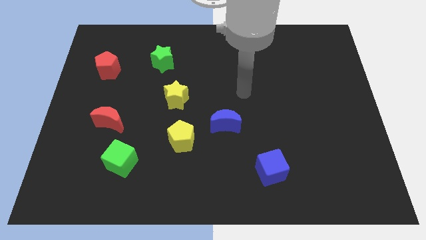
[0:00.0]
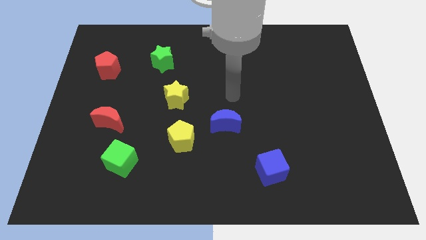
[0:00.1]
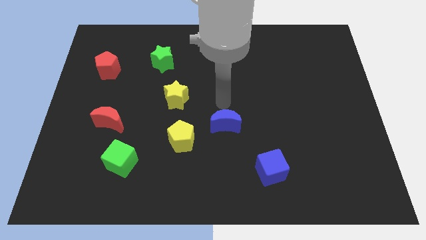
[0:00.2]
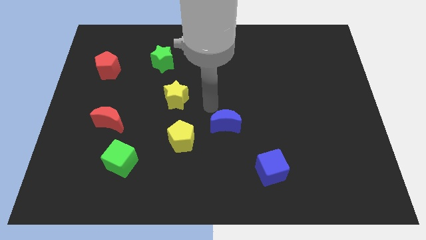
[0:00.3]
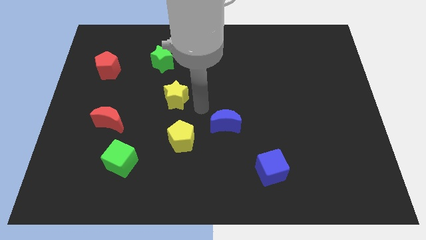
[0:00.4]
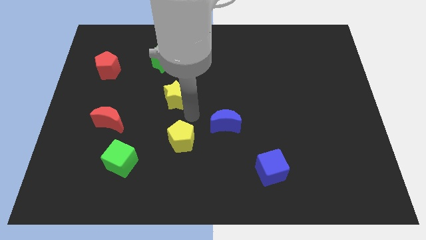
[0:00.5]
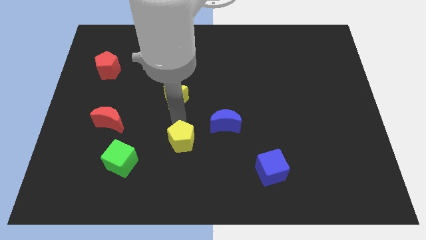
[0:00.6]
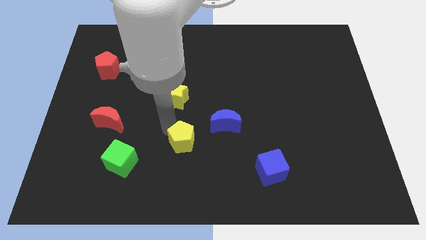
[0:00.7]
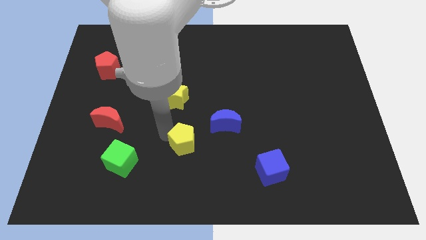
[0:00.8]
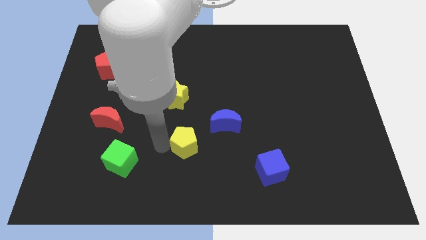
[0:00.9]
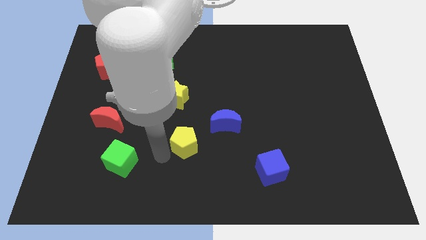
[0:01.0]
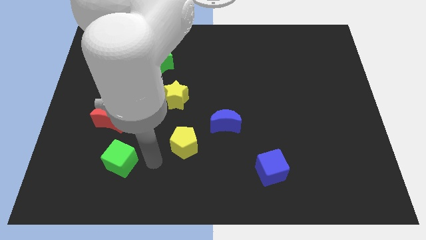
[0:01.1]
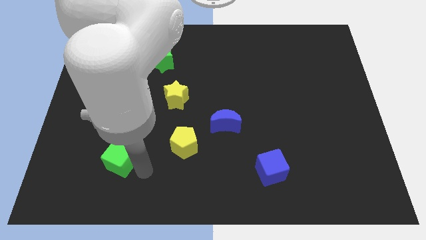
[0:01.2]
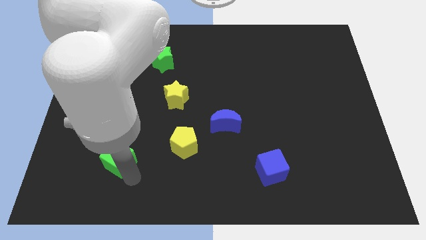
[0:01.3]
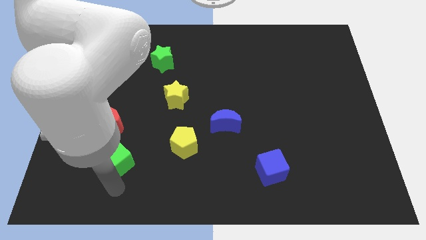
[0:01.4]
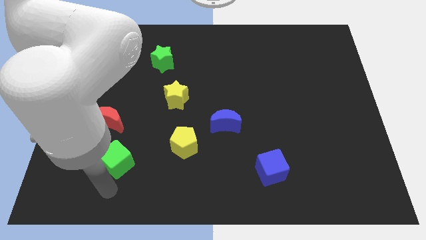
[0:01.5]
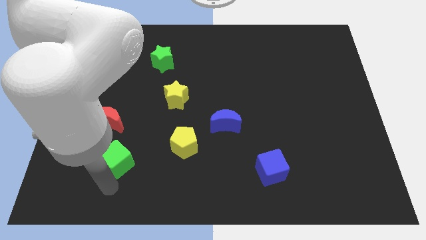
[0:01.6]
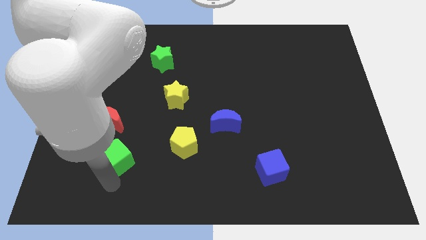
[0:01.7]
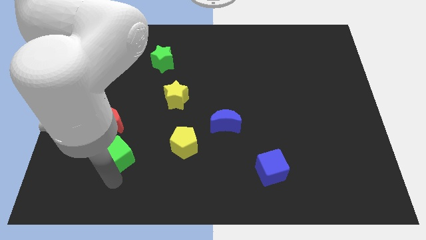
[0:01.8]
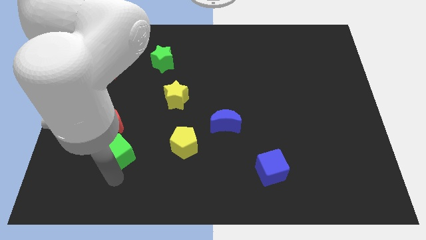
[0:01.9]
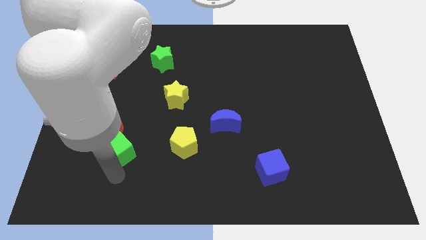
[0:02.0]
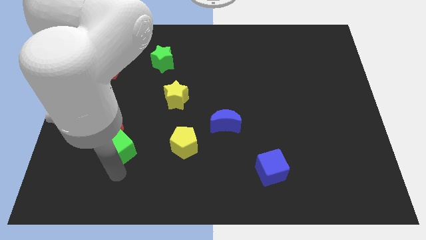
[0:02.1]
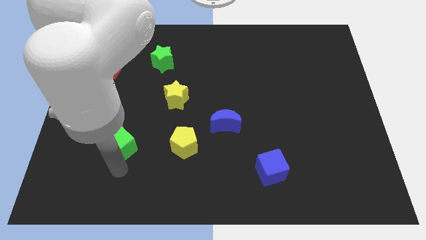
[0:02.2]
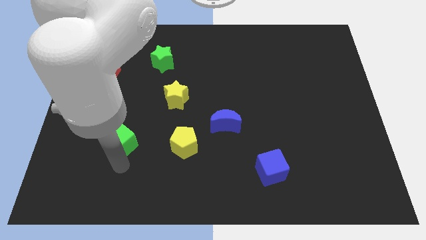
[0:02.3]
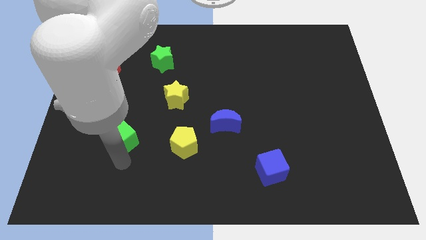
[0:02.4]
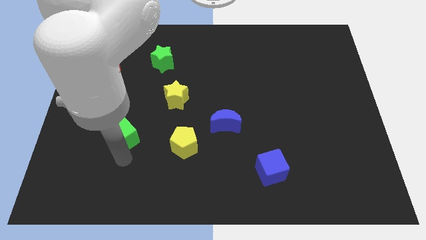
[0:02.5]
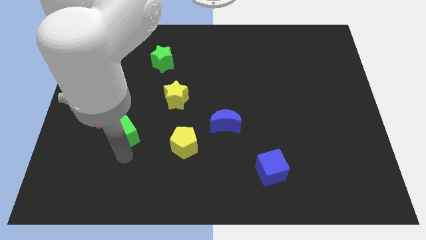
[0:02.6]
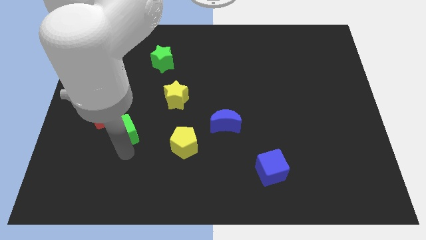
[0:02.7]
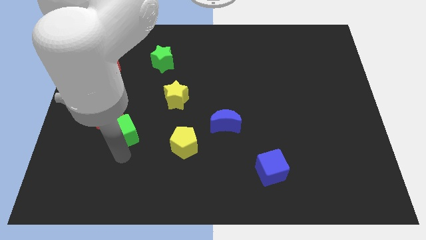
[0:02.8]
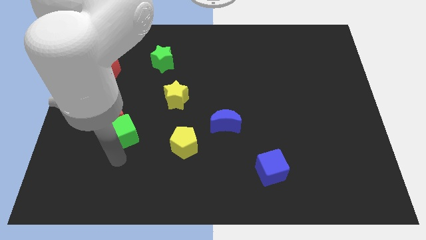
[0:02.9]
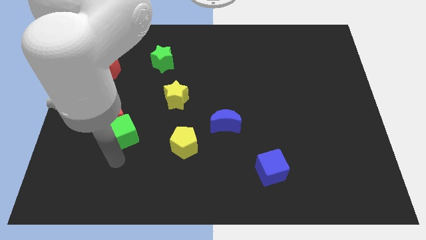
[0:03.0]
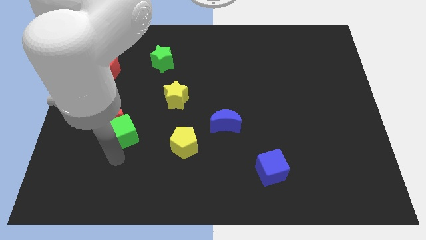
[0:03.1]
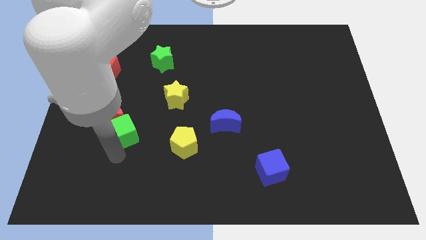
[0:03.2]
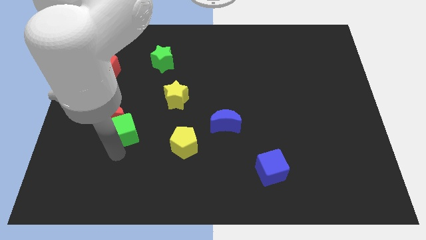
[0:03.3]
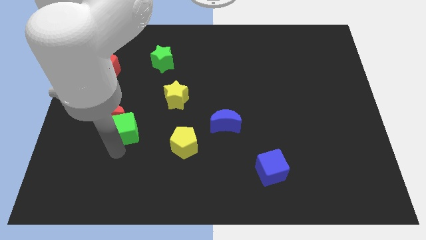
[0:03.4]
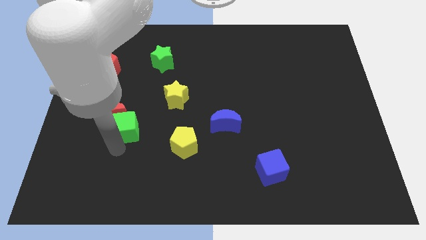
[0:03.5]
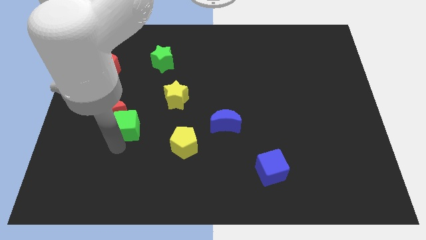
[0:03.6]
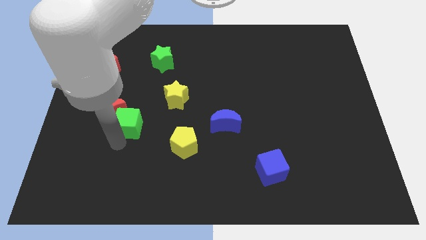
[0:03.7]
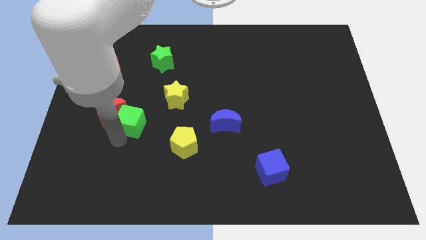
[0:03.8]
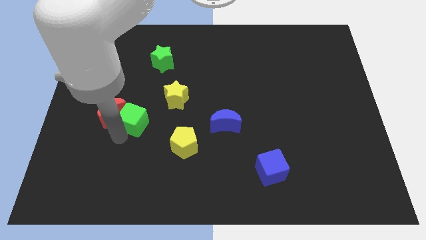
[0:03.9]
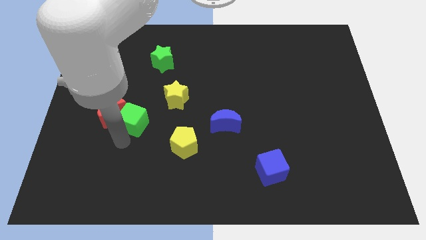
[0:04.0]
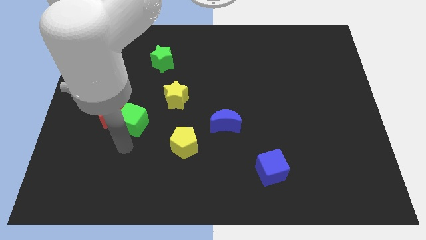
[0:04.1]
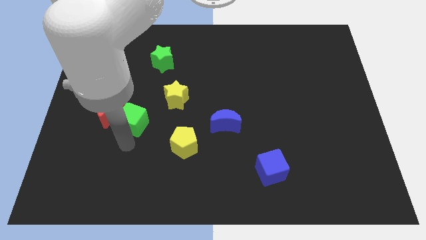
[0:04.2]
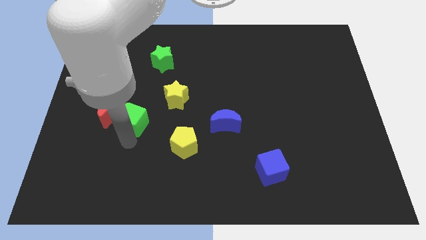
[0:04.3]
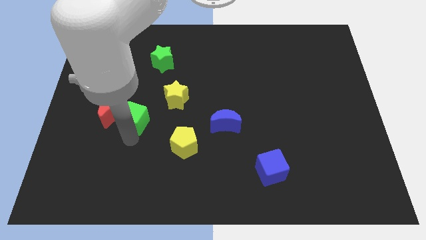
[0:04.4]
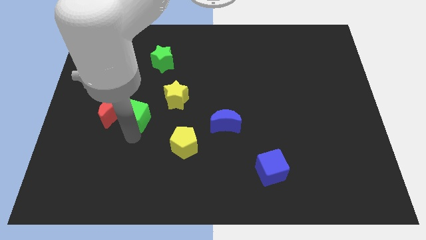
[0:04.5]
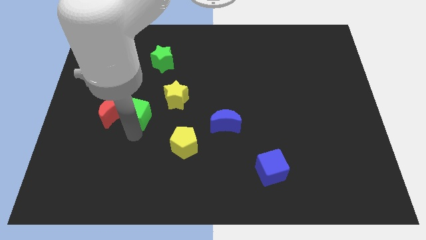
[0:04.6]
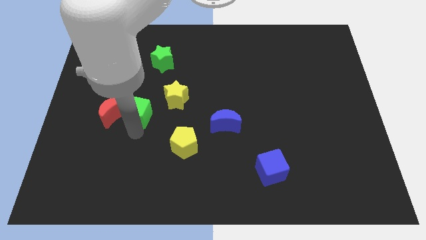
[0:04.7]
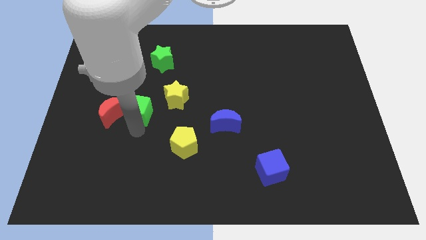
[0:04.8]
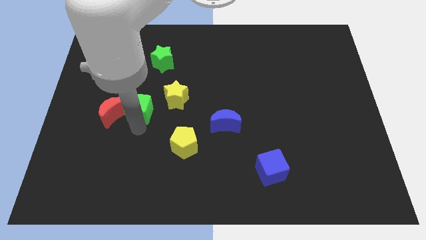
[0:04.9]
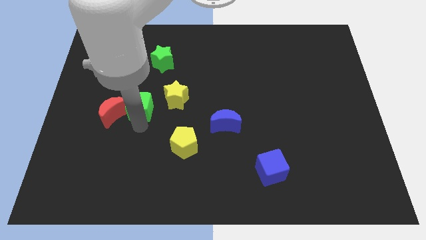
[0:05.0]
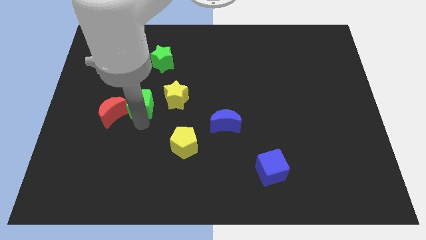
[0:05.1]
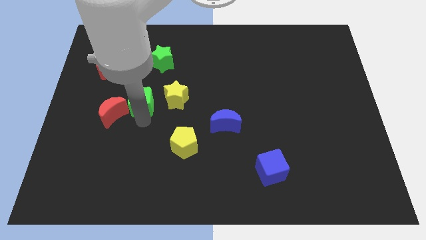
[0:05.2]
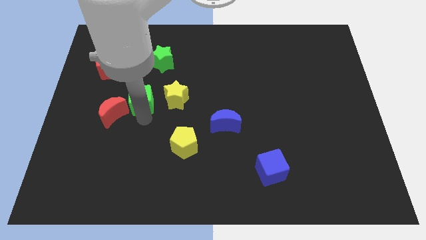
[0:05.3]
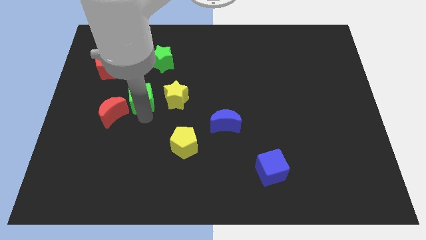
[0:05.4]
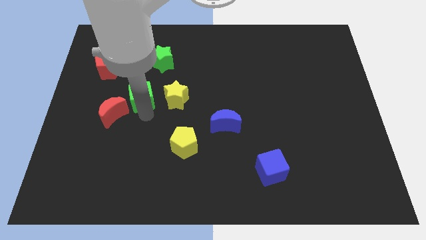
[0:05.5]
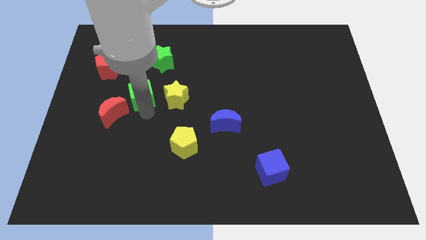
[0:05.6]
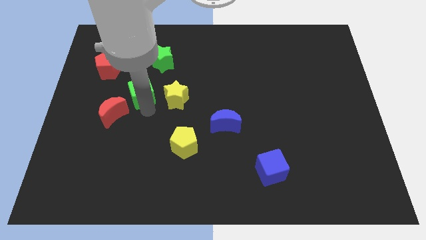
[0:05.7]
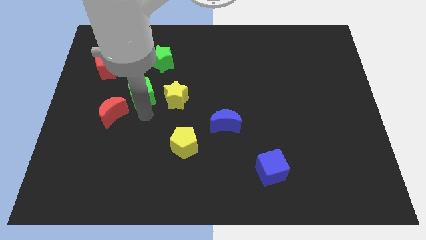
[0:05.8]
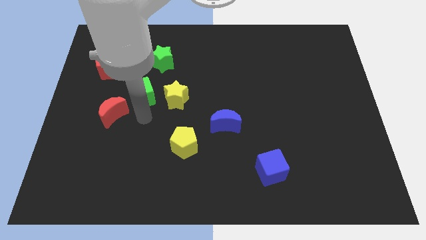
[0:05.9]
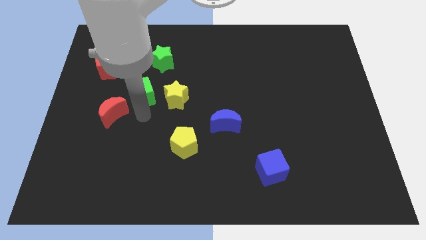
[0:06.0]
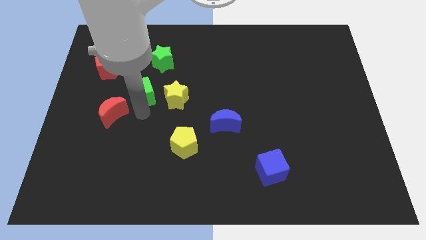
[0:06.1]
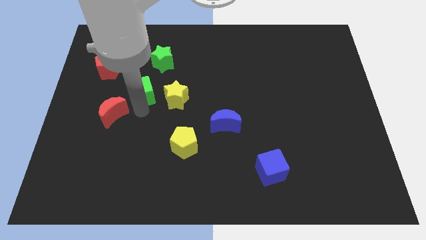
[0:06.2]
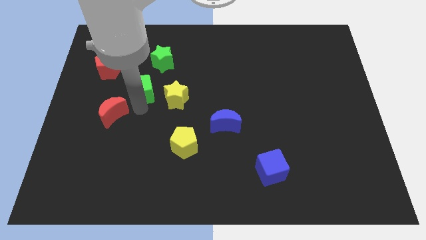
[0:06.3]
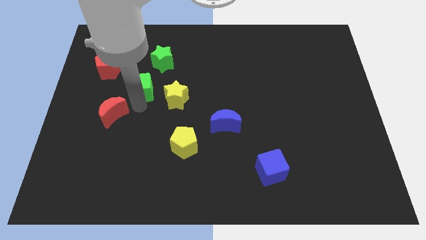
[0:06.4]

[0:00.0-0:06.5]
move the green cube diagonally down and to the left of the green star

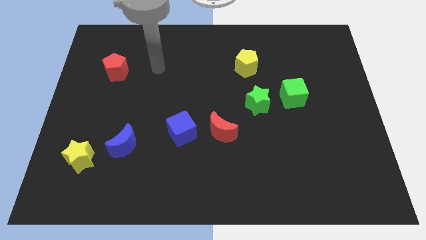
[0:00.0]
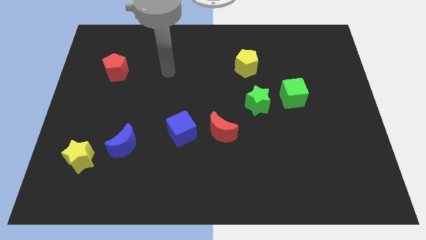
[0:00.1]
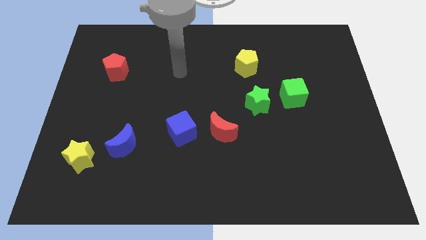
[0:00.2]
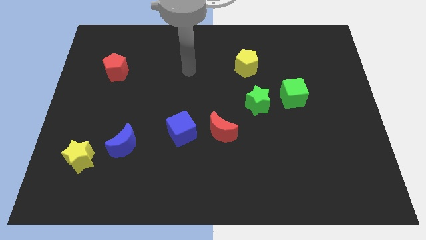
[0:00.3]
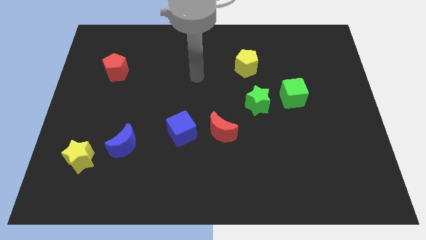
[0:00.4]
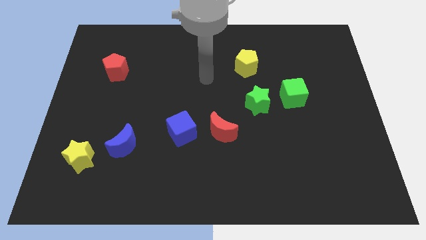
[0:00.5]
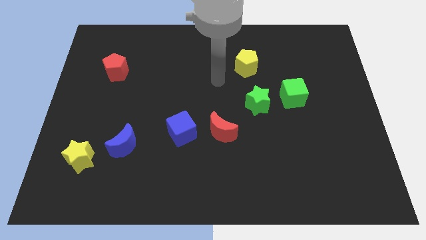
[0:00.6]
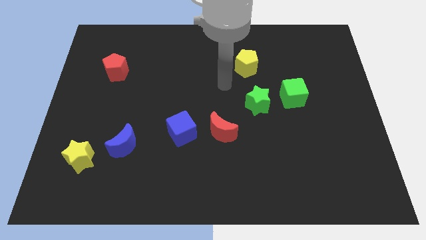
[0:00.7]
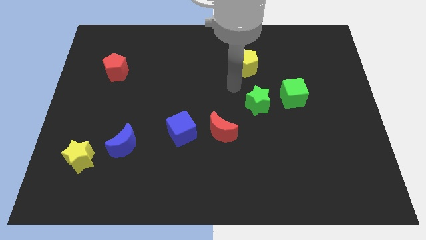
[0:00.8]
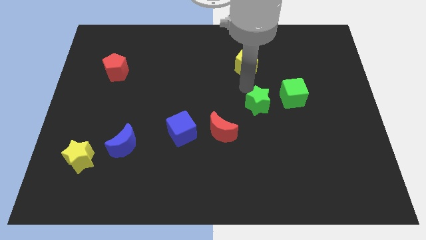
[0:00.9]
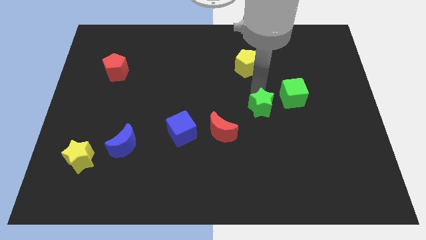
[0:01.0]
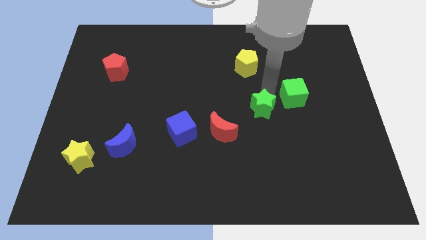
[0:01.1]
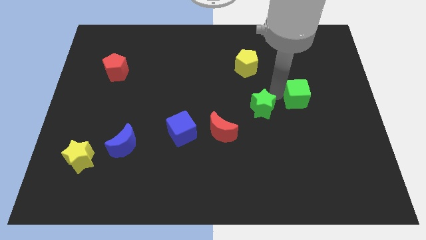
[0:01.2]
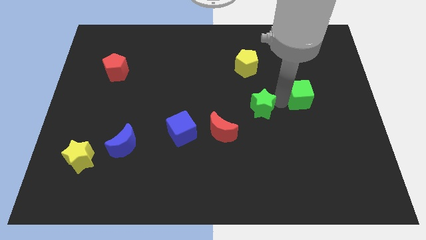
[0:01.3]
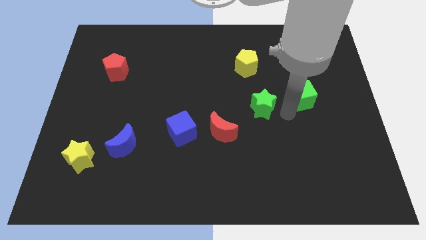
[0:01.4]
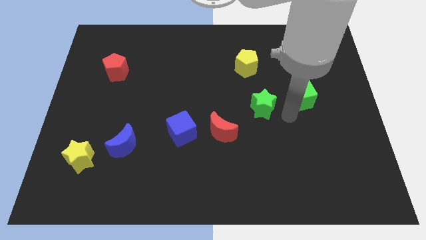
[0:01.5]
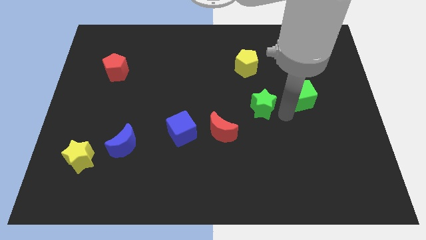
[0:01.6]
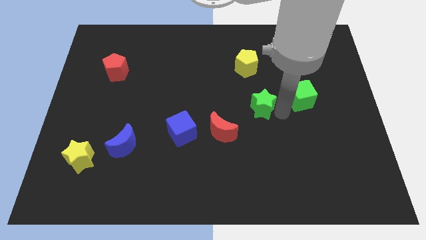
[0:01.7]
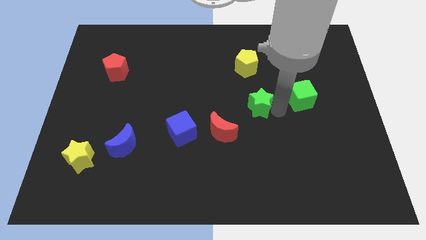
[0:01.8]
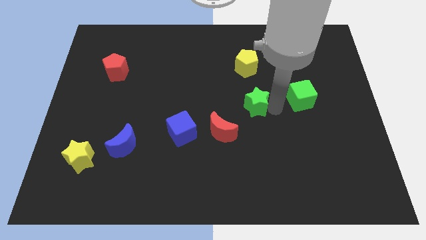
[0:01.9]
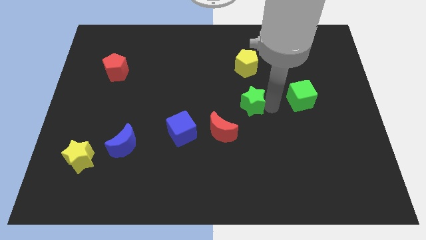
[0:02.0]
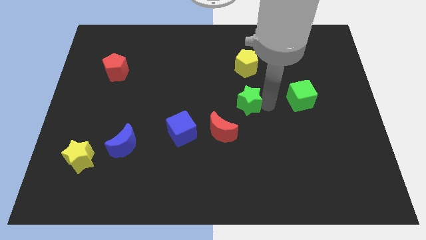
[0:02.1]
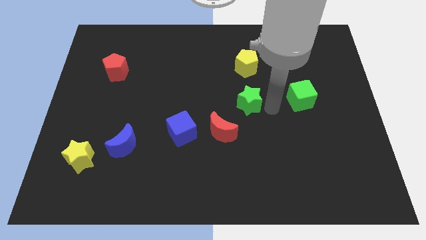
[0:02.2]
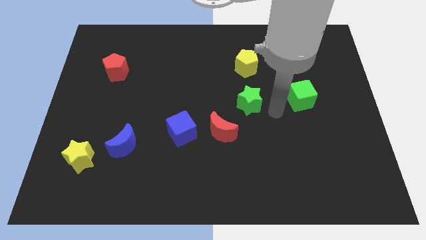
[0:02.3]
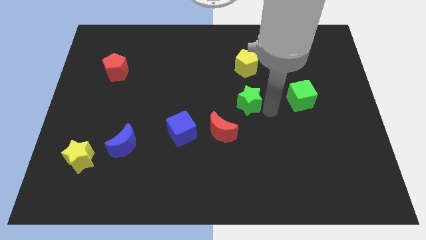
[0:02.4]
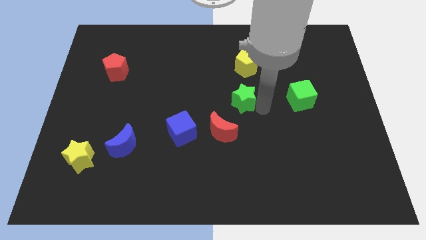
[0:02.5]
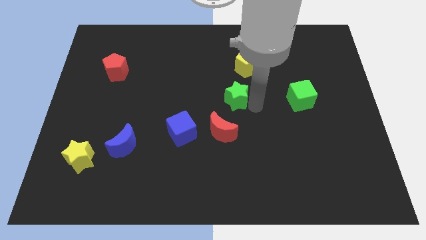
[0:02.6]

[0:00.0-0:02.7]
slide the green star to the top side of the red moon
